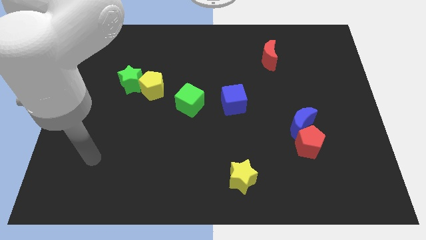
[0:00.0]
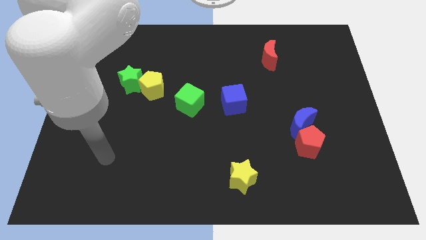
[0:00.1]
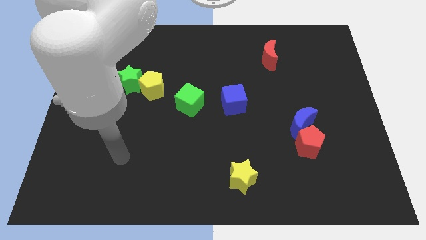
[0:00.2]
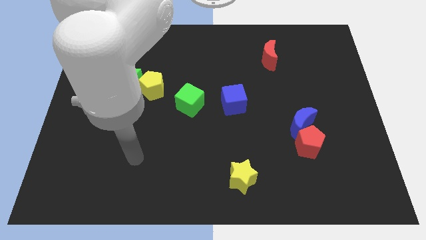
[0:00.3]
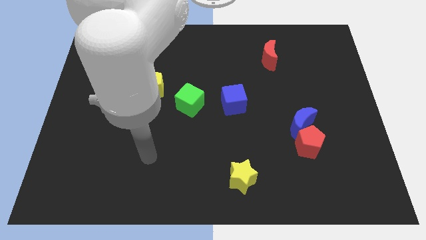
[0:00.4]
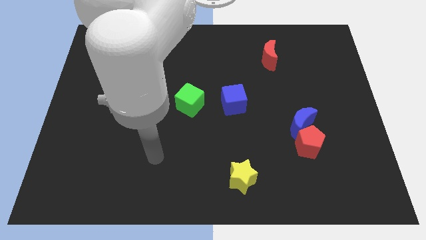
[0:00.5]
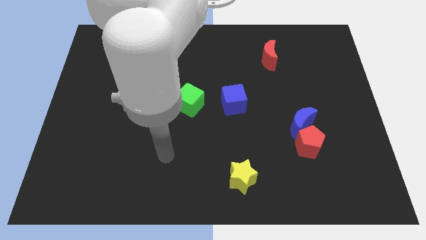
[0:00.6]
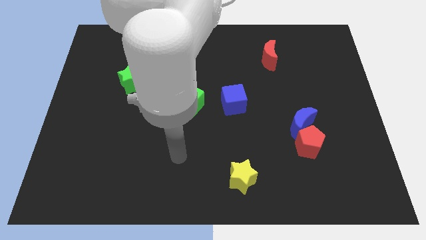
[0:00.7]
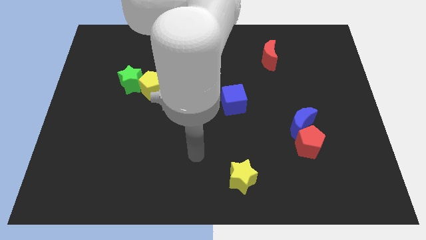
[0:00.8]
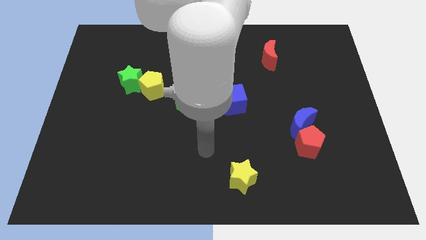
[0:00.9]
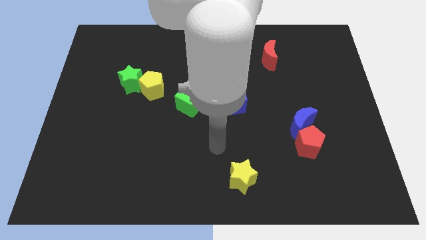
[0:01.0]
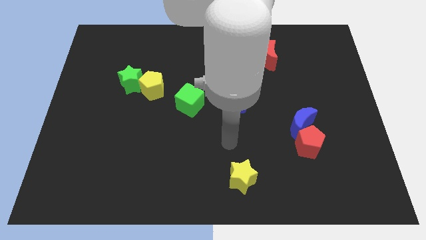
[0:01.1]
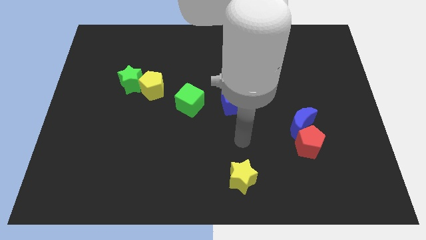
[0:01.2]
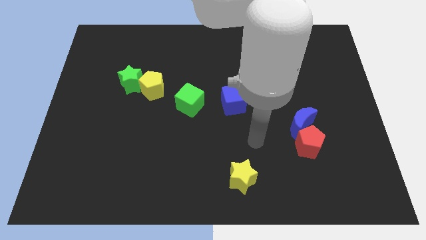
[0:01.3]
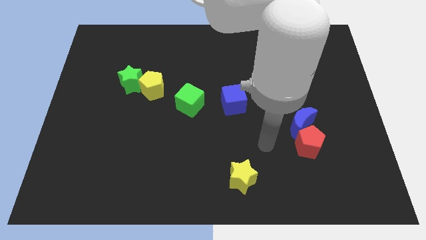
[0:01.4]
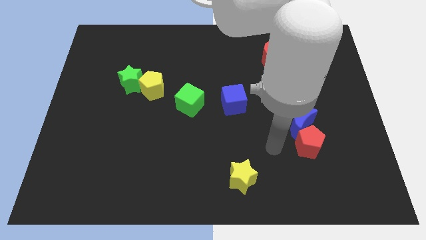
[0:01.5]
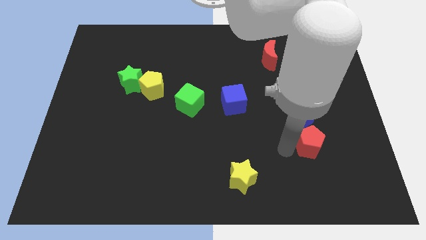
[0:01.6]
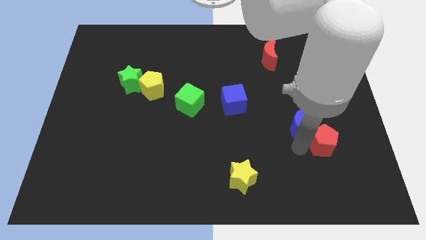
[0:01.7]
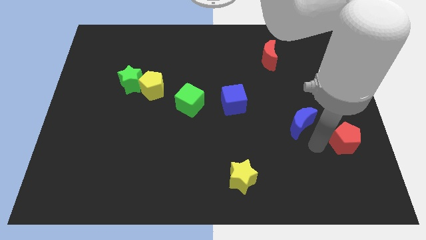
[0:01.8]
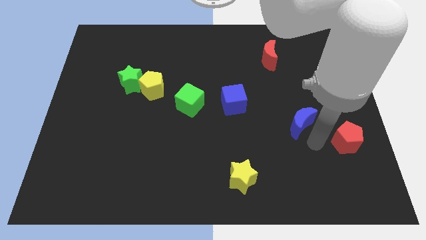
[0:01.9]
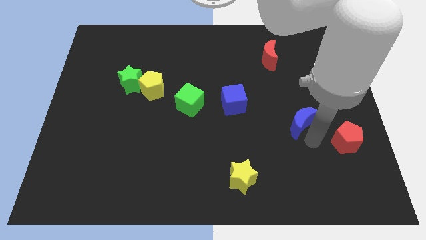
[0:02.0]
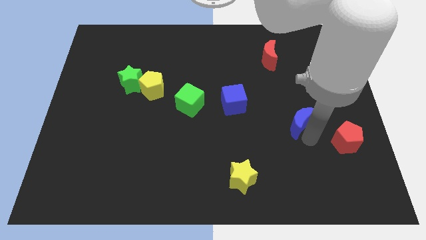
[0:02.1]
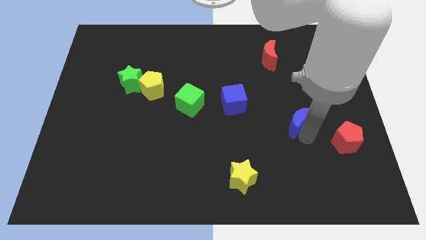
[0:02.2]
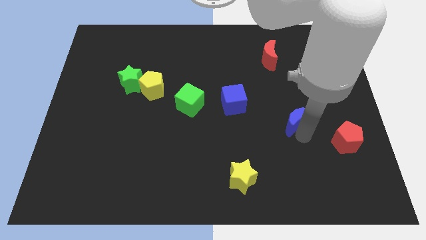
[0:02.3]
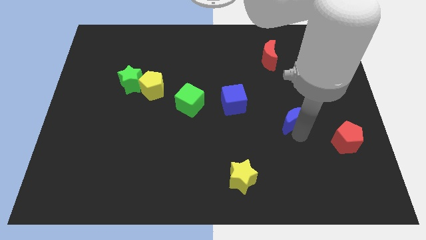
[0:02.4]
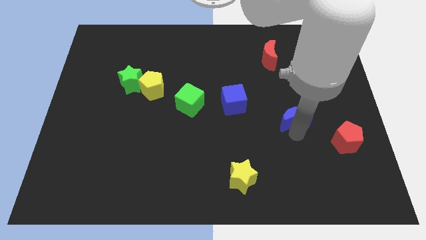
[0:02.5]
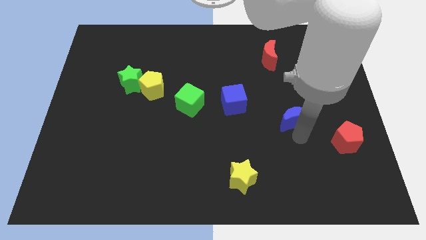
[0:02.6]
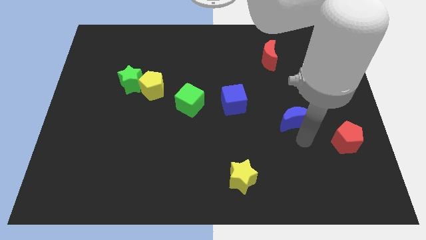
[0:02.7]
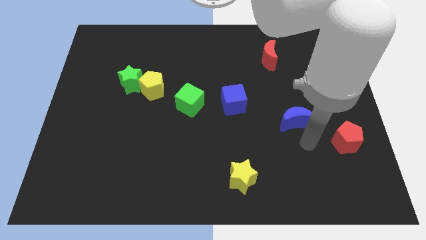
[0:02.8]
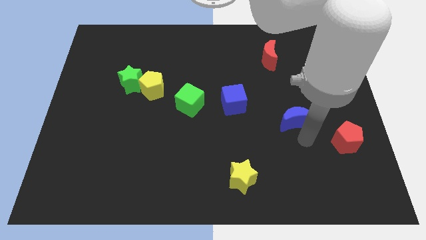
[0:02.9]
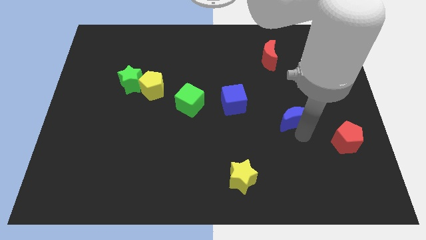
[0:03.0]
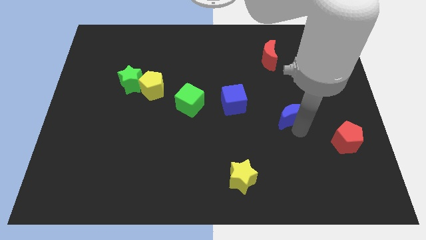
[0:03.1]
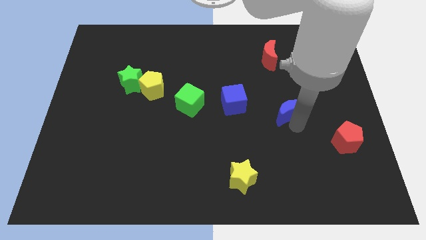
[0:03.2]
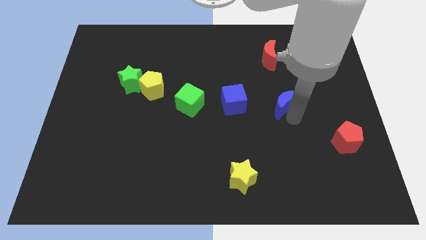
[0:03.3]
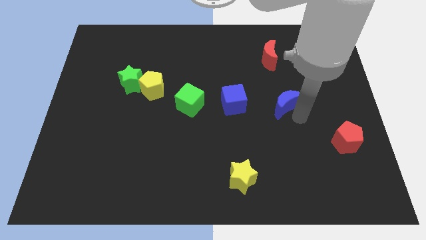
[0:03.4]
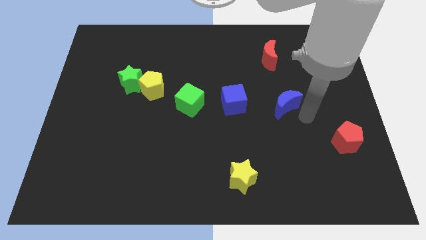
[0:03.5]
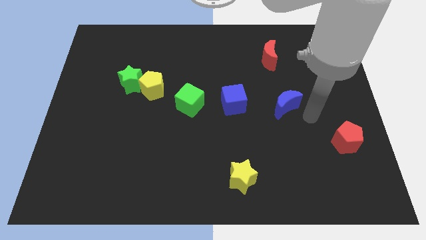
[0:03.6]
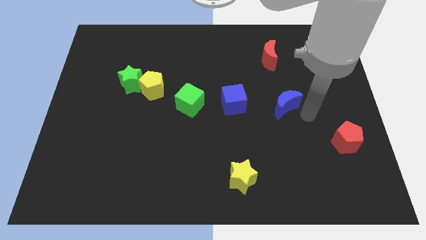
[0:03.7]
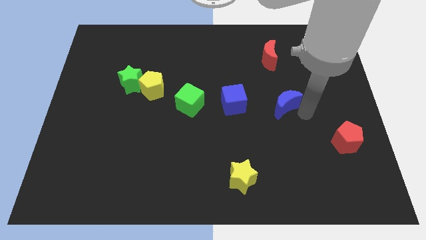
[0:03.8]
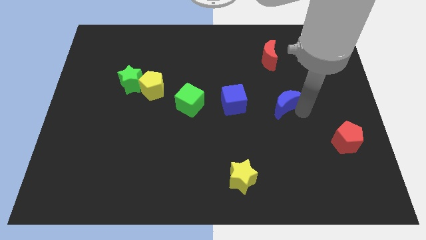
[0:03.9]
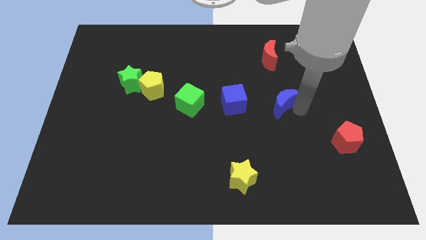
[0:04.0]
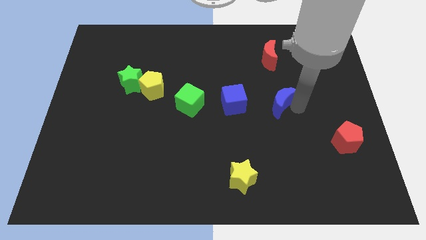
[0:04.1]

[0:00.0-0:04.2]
slide the blue moon somewhat upwards and then to the left

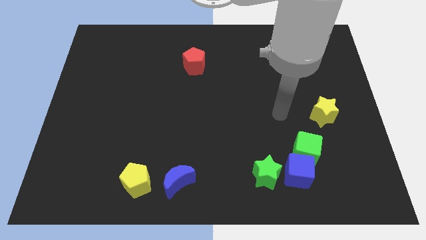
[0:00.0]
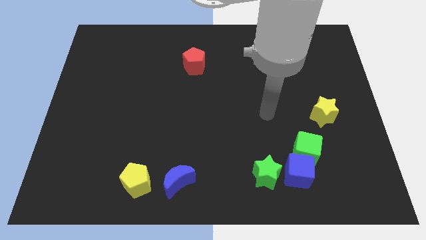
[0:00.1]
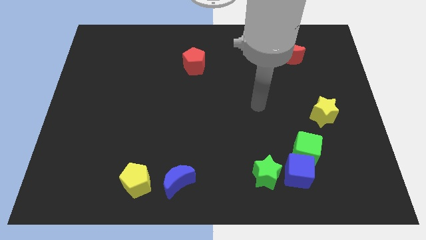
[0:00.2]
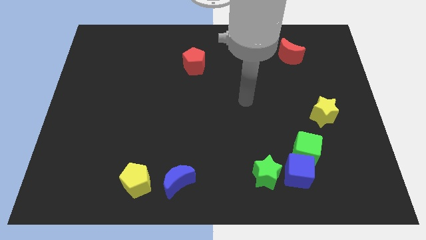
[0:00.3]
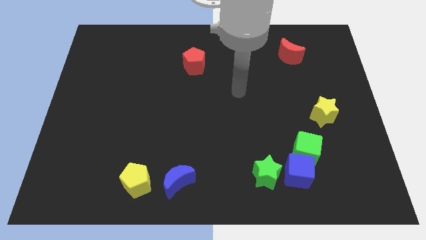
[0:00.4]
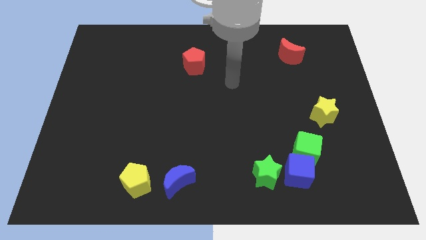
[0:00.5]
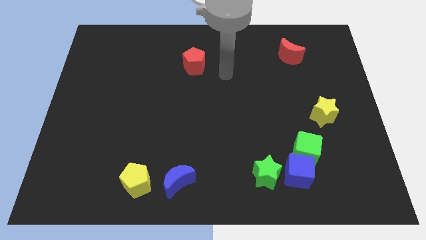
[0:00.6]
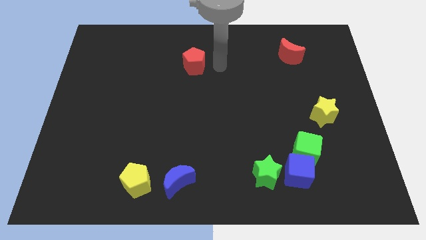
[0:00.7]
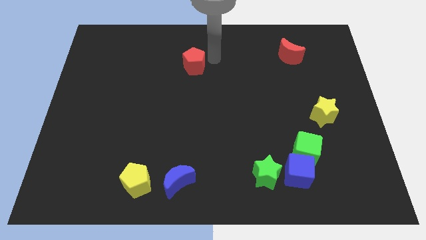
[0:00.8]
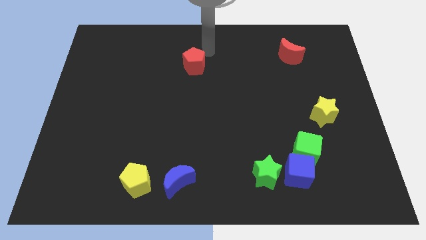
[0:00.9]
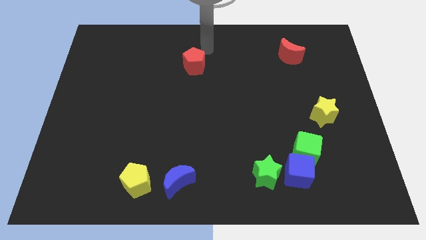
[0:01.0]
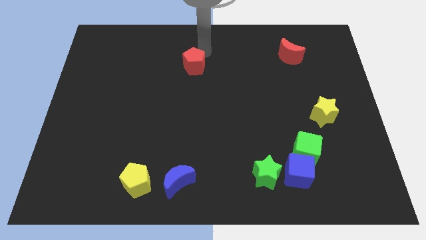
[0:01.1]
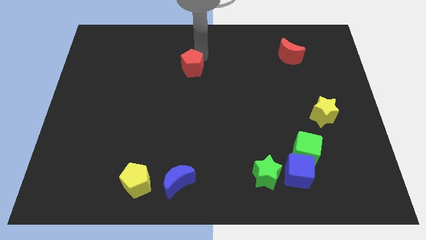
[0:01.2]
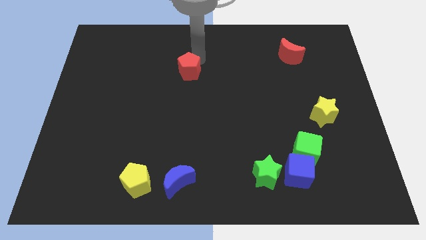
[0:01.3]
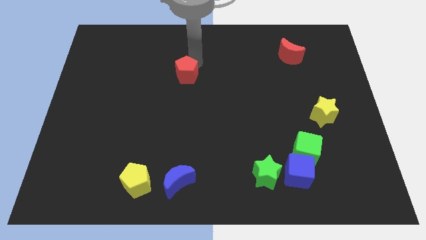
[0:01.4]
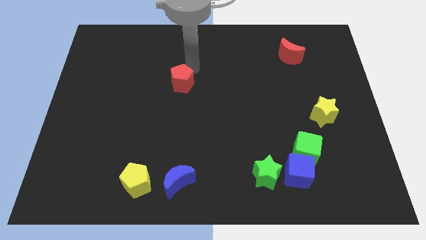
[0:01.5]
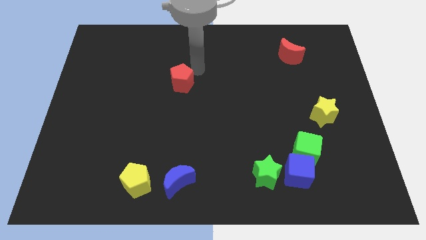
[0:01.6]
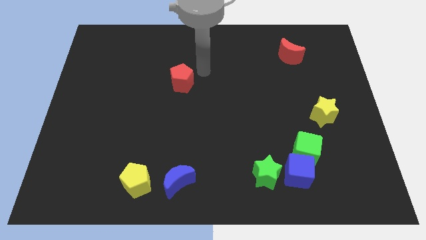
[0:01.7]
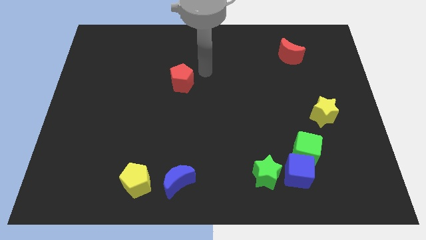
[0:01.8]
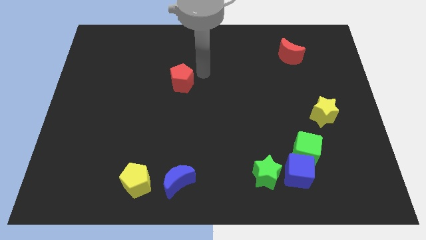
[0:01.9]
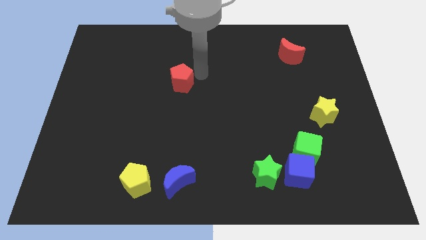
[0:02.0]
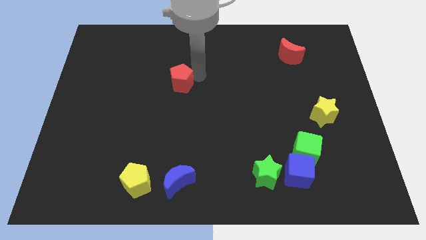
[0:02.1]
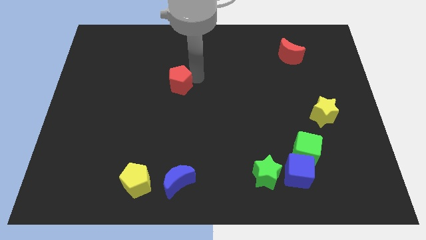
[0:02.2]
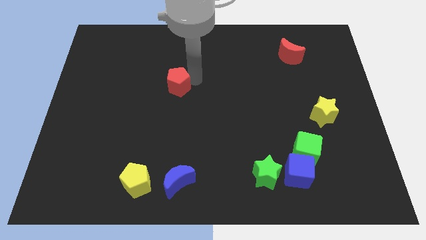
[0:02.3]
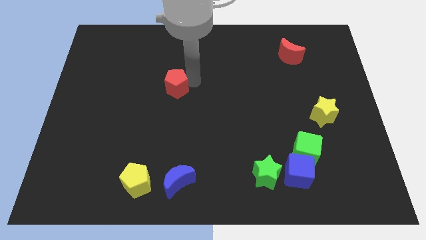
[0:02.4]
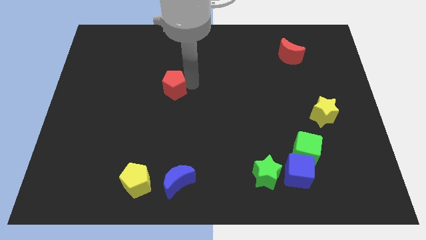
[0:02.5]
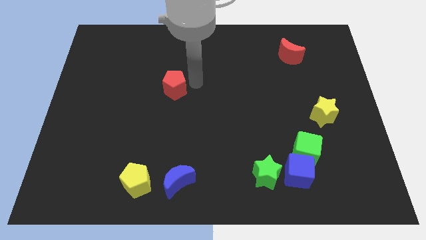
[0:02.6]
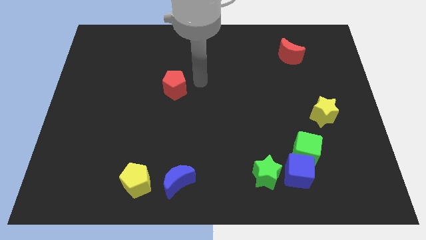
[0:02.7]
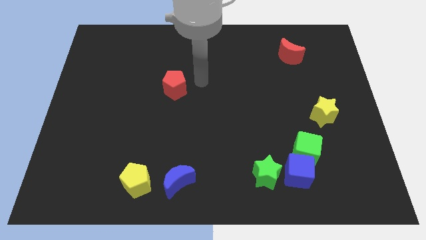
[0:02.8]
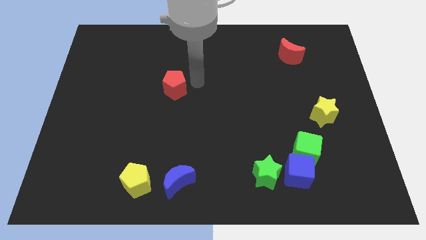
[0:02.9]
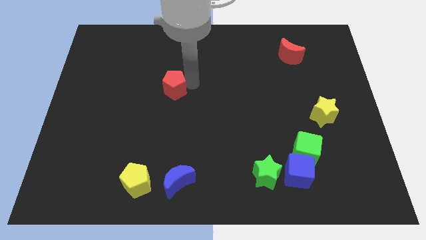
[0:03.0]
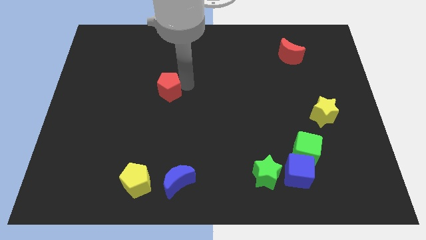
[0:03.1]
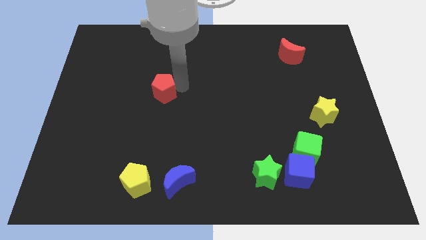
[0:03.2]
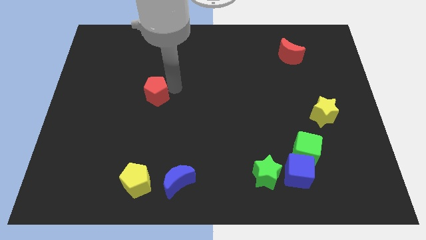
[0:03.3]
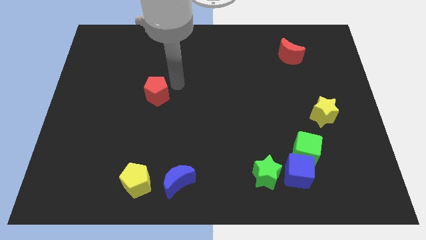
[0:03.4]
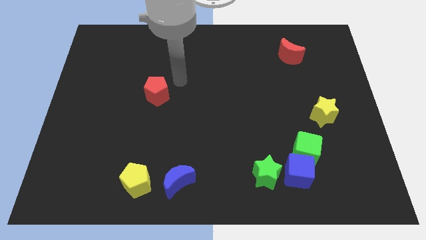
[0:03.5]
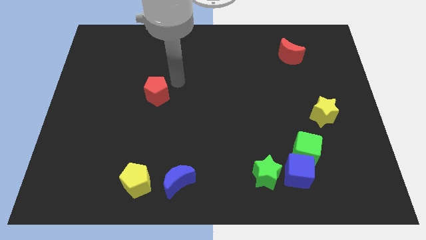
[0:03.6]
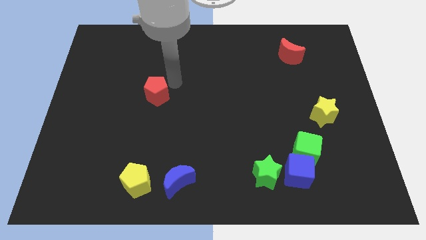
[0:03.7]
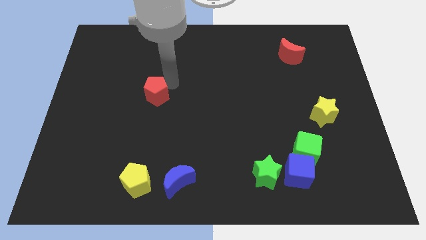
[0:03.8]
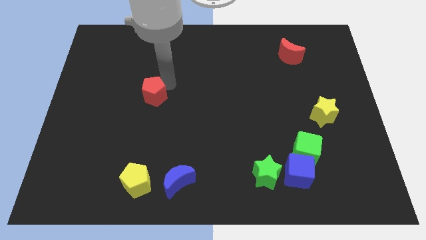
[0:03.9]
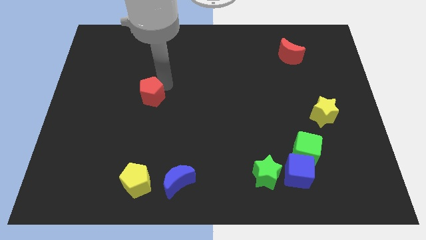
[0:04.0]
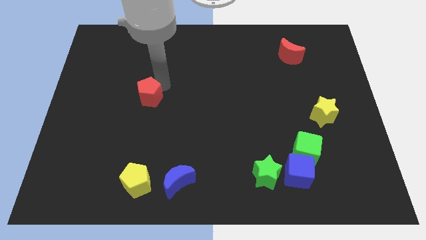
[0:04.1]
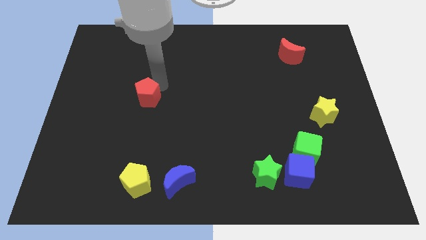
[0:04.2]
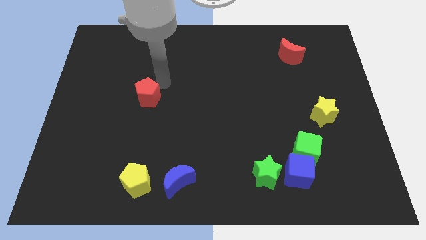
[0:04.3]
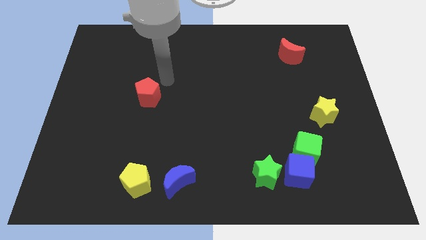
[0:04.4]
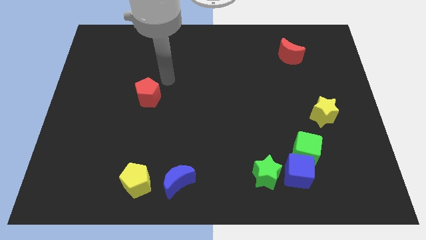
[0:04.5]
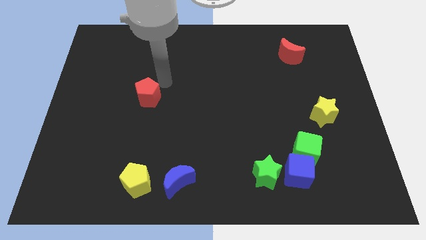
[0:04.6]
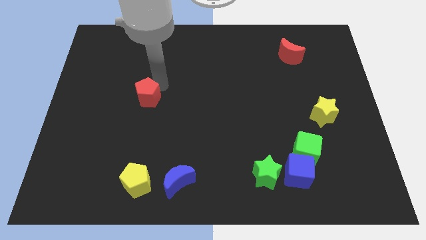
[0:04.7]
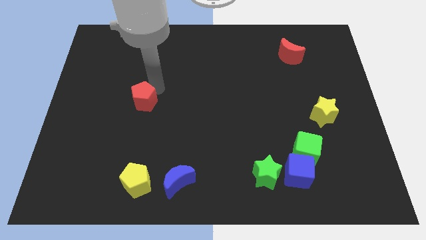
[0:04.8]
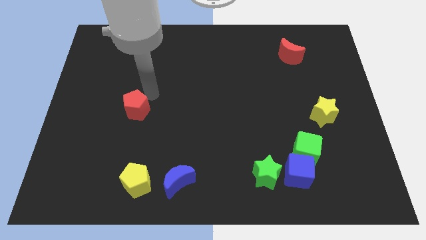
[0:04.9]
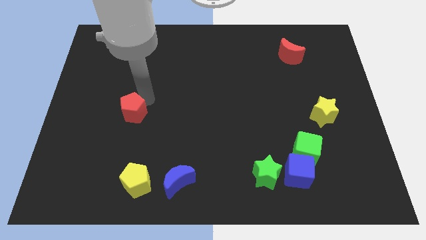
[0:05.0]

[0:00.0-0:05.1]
push the red pentagon downwards and then to the left
